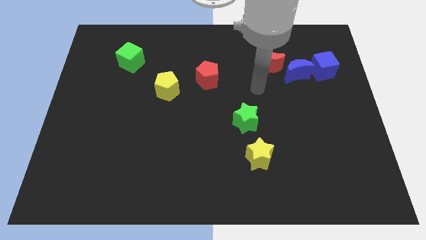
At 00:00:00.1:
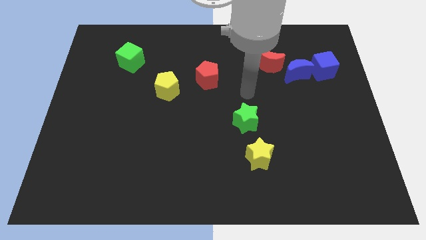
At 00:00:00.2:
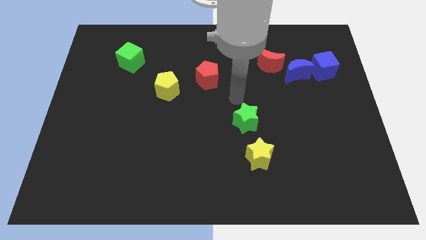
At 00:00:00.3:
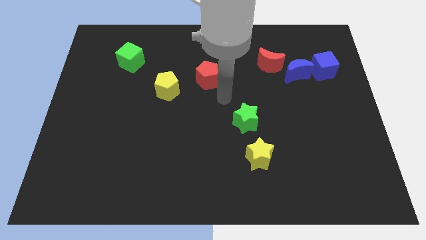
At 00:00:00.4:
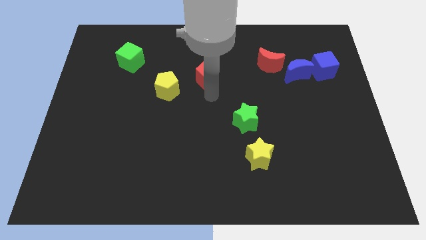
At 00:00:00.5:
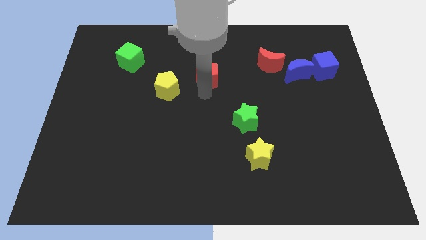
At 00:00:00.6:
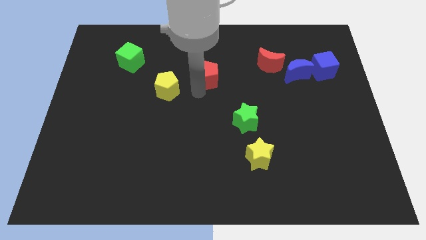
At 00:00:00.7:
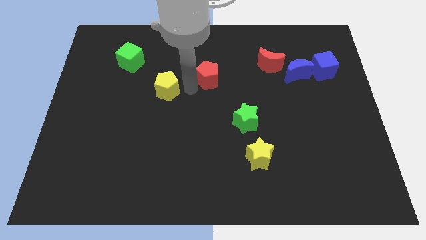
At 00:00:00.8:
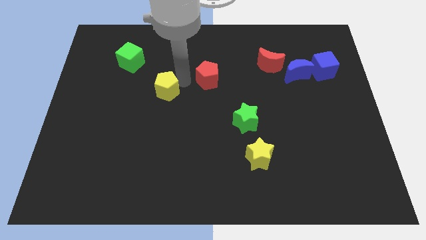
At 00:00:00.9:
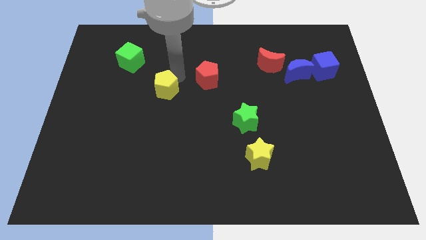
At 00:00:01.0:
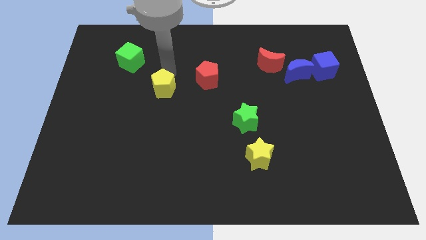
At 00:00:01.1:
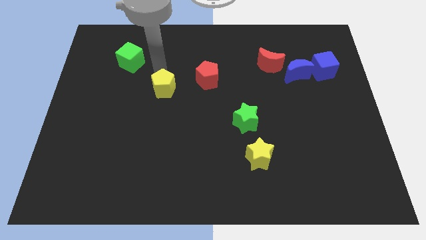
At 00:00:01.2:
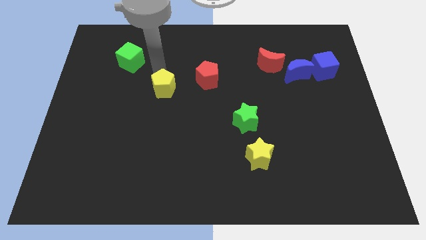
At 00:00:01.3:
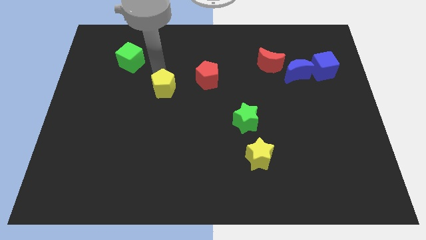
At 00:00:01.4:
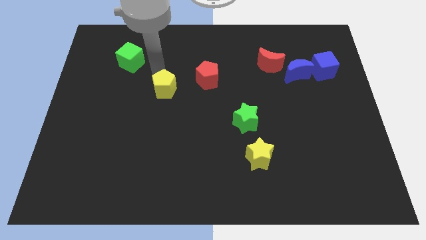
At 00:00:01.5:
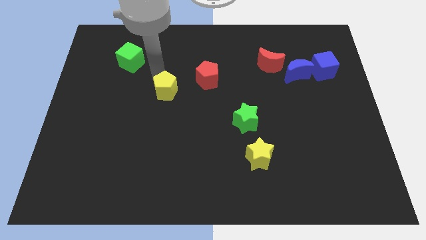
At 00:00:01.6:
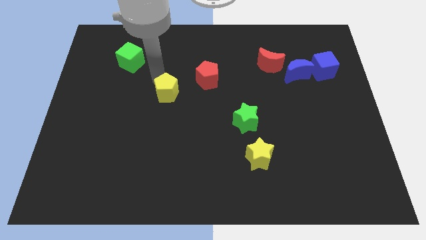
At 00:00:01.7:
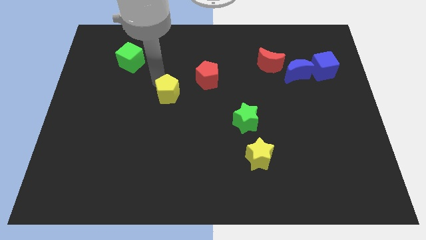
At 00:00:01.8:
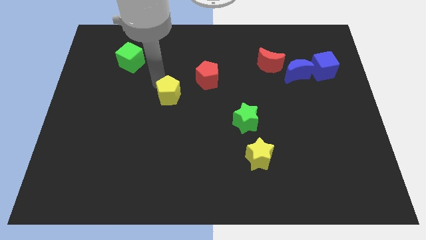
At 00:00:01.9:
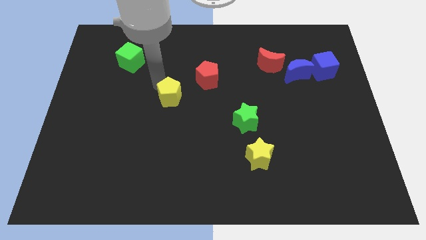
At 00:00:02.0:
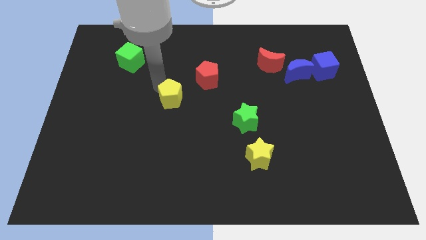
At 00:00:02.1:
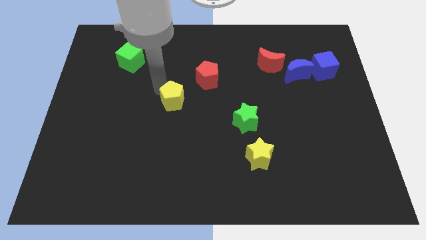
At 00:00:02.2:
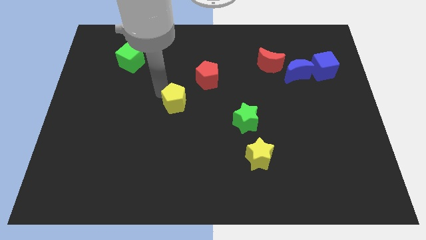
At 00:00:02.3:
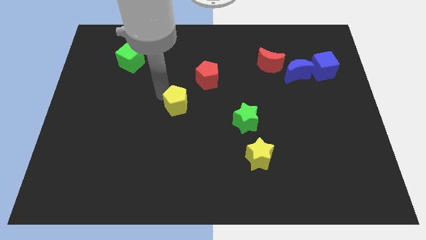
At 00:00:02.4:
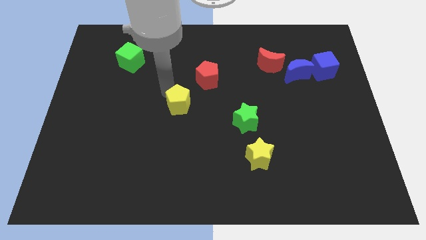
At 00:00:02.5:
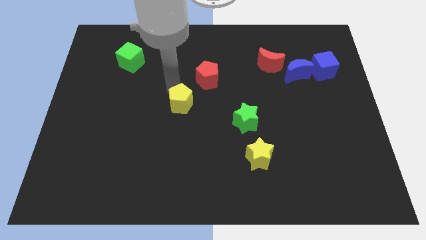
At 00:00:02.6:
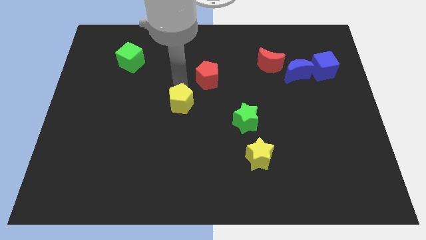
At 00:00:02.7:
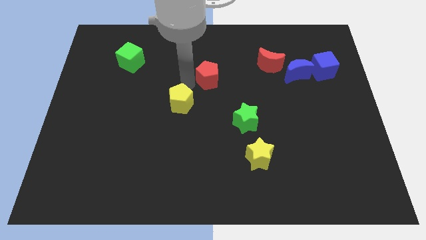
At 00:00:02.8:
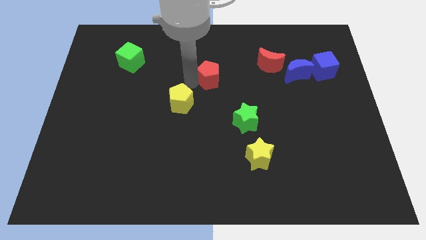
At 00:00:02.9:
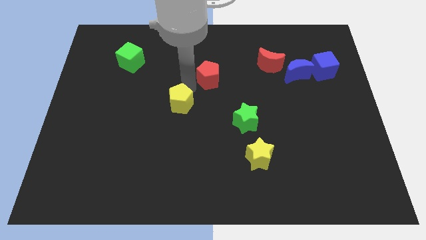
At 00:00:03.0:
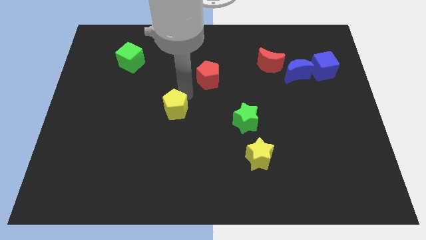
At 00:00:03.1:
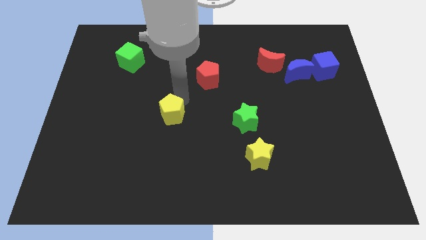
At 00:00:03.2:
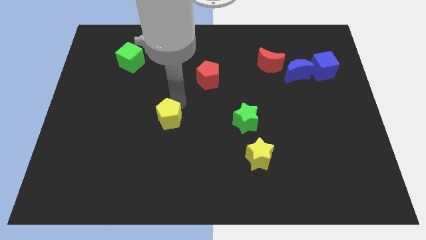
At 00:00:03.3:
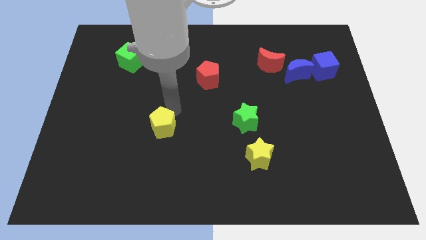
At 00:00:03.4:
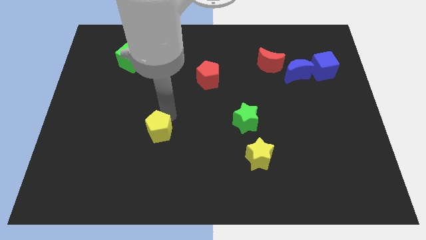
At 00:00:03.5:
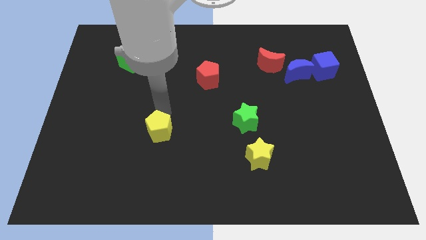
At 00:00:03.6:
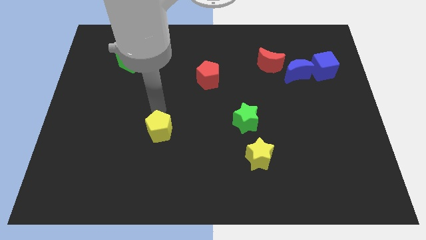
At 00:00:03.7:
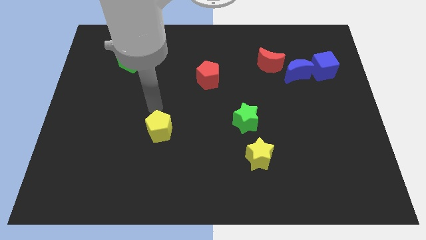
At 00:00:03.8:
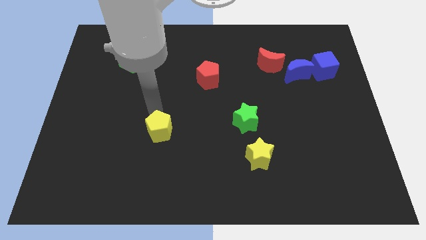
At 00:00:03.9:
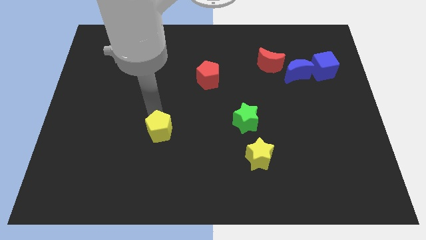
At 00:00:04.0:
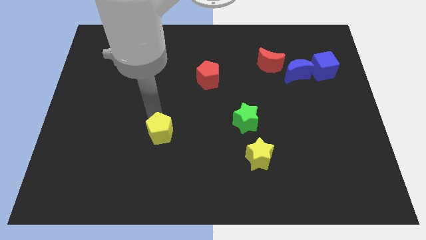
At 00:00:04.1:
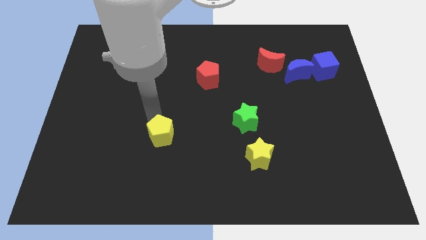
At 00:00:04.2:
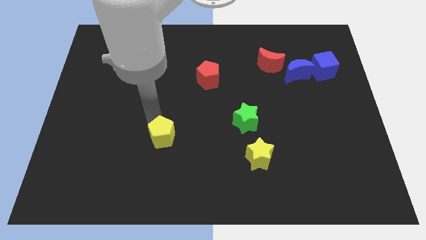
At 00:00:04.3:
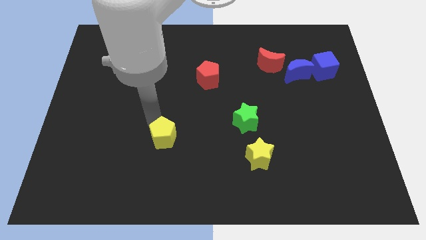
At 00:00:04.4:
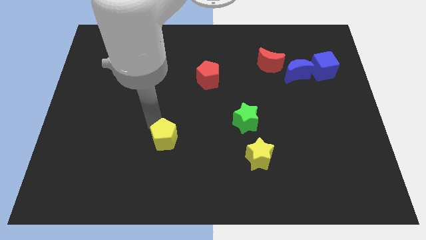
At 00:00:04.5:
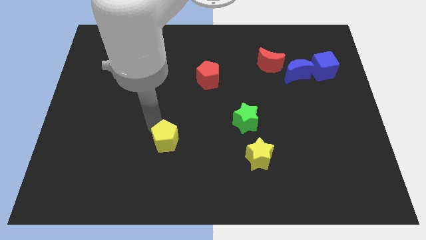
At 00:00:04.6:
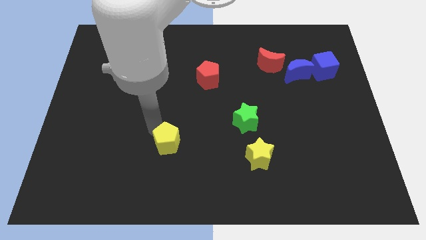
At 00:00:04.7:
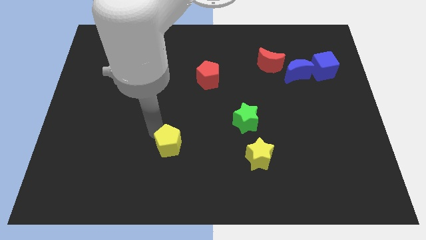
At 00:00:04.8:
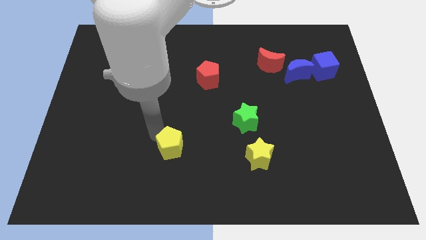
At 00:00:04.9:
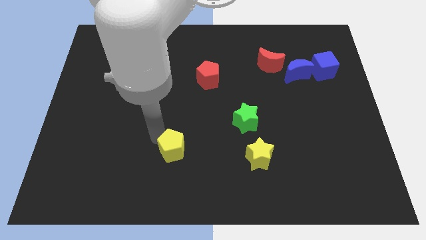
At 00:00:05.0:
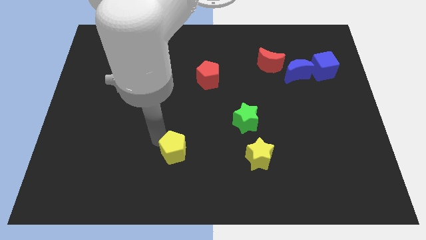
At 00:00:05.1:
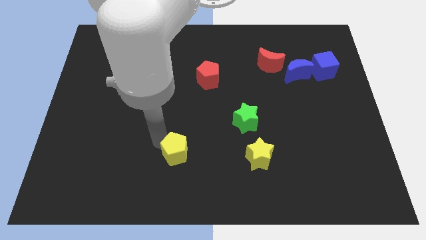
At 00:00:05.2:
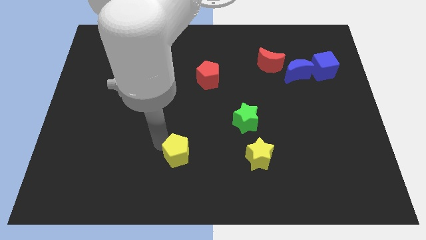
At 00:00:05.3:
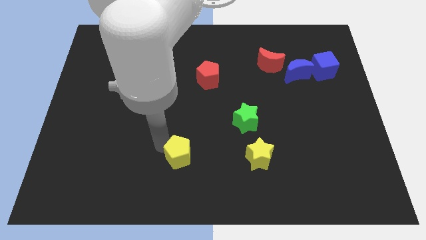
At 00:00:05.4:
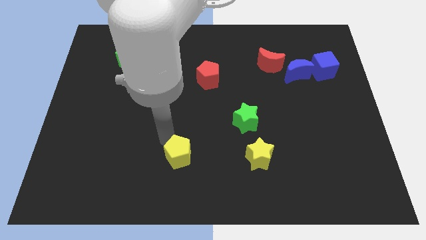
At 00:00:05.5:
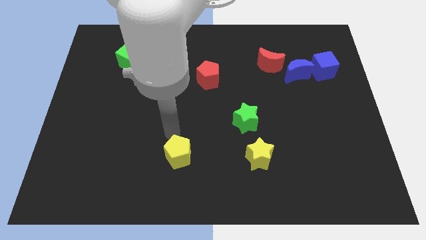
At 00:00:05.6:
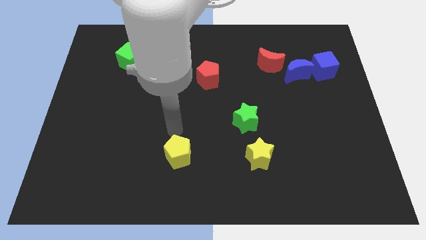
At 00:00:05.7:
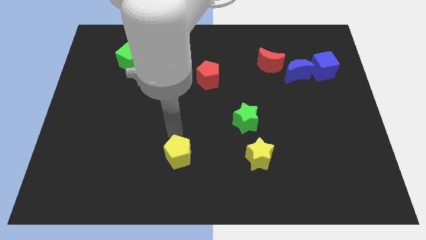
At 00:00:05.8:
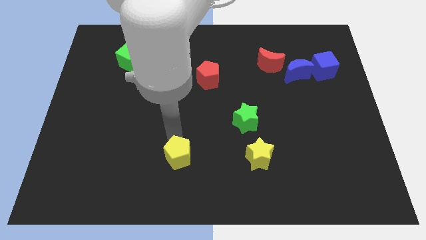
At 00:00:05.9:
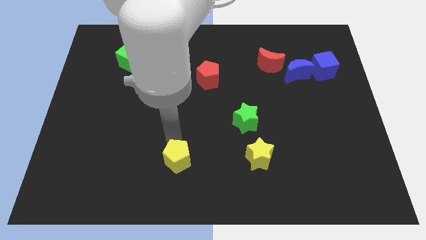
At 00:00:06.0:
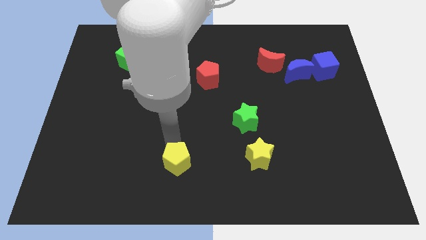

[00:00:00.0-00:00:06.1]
put the yellow pentagon to the bottom side
